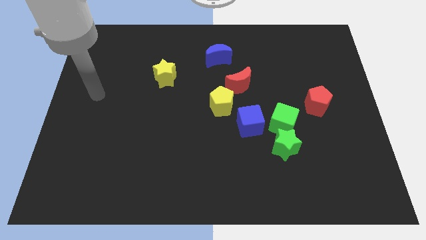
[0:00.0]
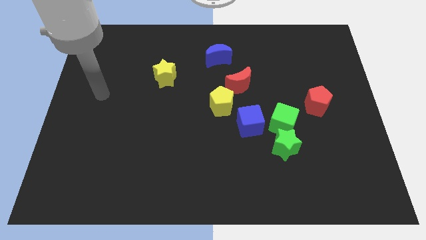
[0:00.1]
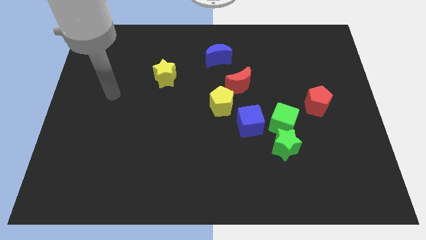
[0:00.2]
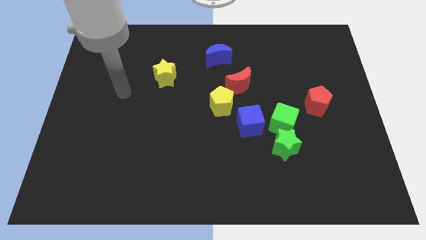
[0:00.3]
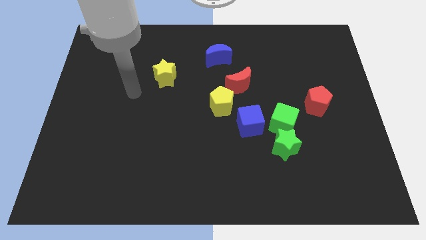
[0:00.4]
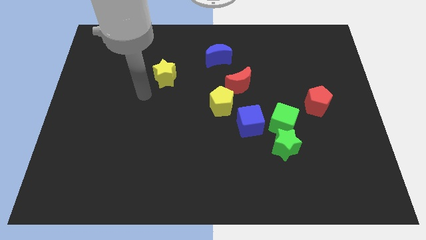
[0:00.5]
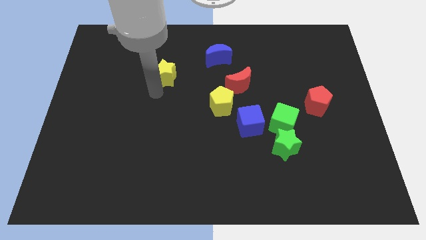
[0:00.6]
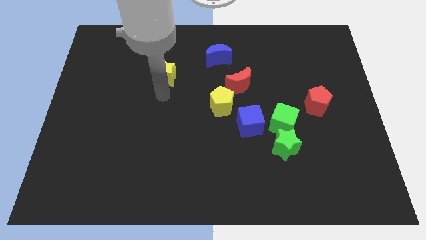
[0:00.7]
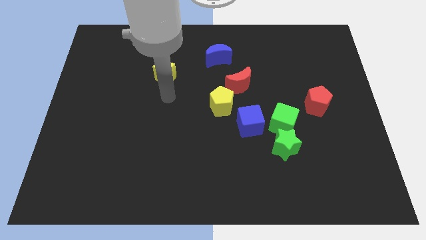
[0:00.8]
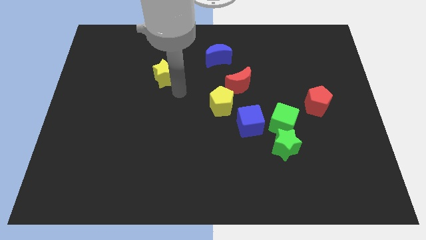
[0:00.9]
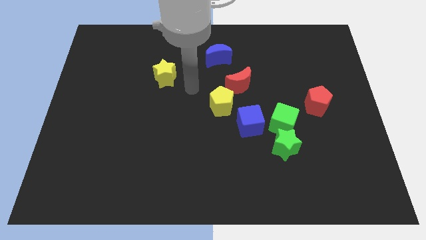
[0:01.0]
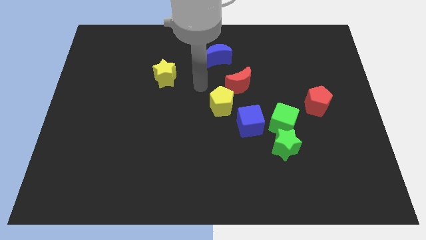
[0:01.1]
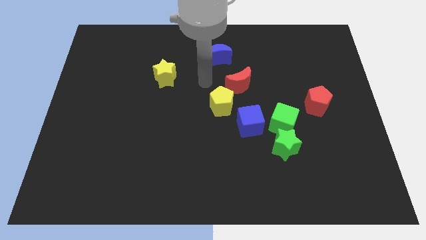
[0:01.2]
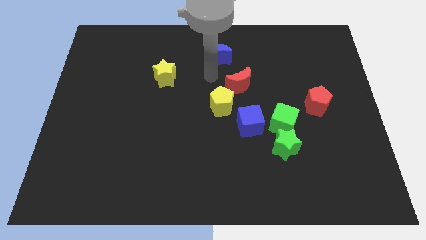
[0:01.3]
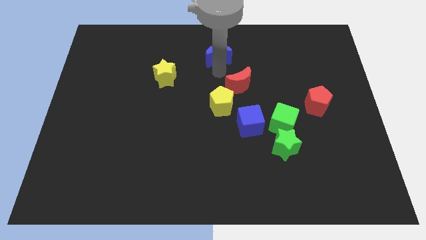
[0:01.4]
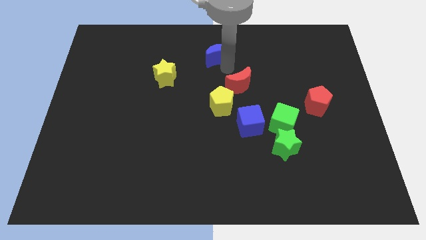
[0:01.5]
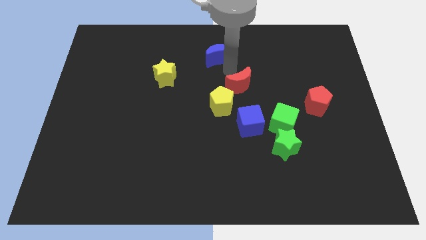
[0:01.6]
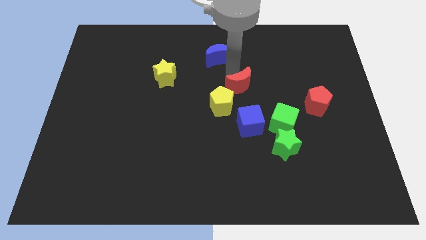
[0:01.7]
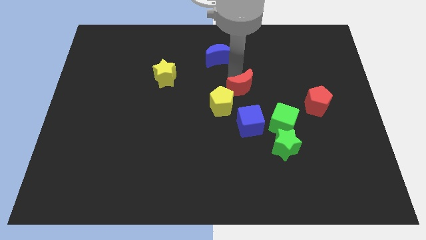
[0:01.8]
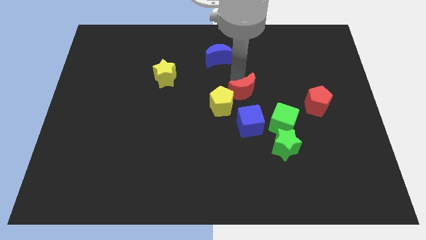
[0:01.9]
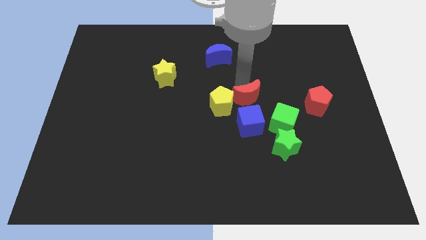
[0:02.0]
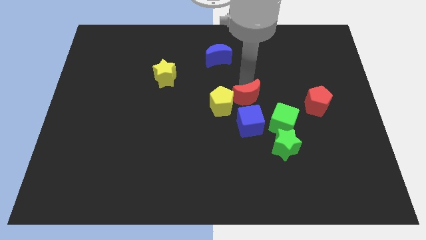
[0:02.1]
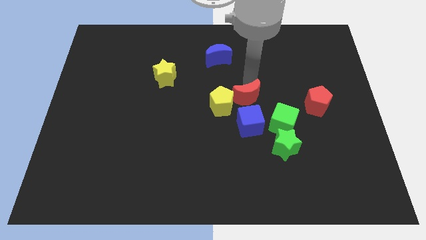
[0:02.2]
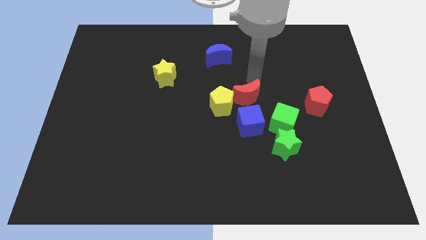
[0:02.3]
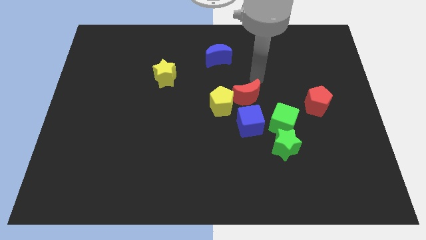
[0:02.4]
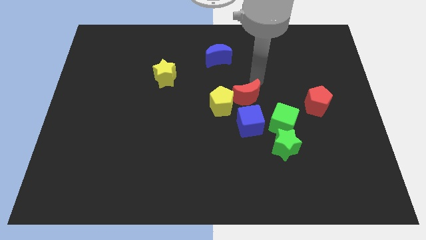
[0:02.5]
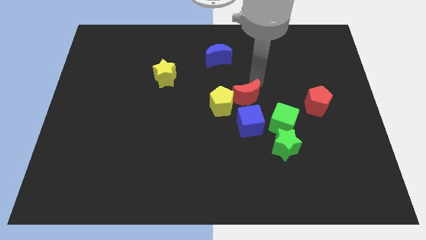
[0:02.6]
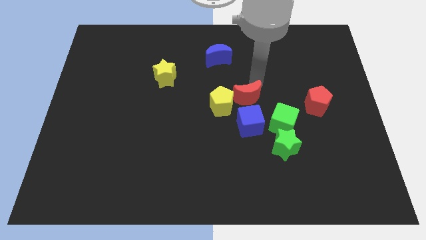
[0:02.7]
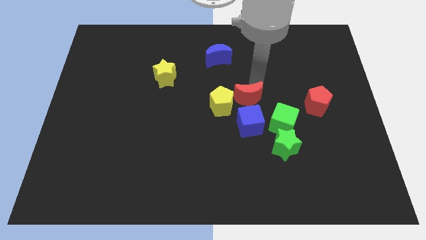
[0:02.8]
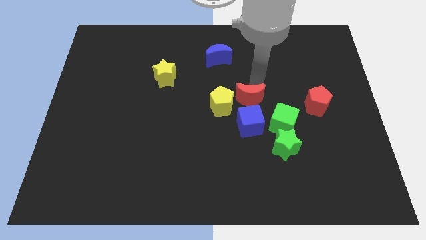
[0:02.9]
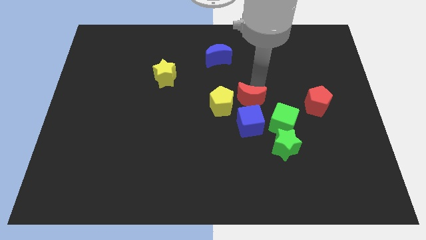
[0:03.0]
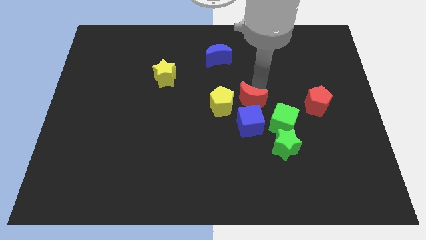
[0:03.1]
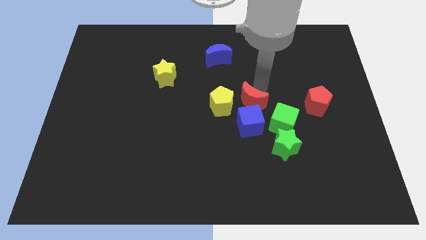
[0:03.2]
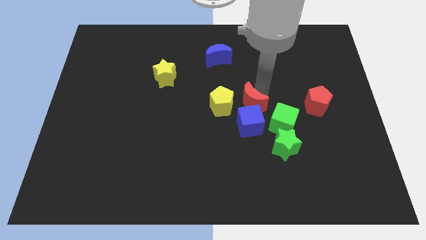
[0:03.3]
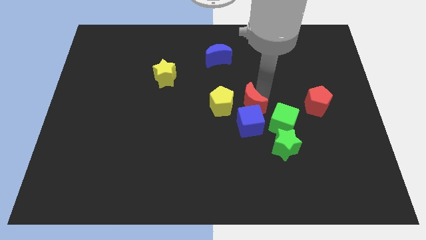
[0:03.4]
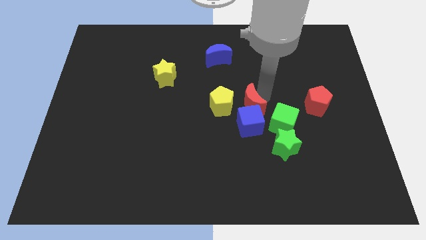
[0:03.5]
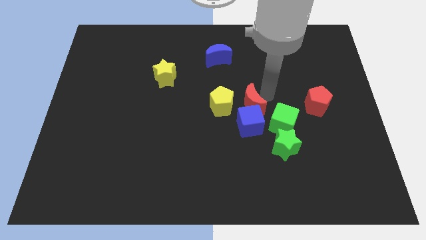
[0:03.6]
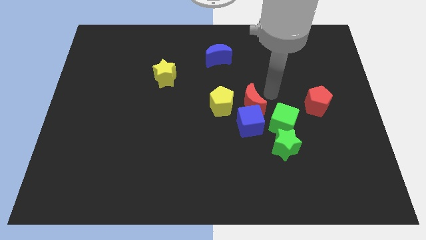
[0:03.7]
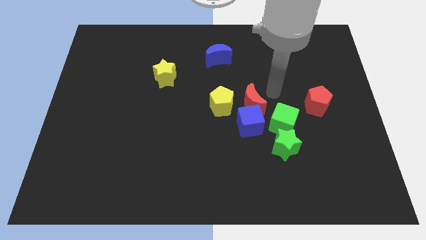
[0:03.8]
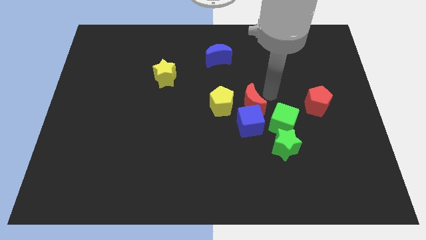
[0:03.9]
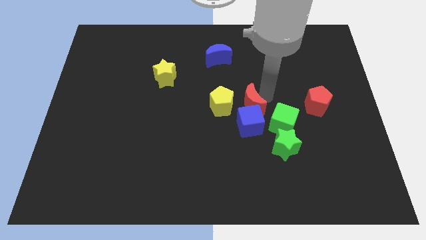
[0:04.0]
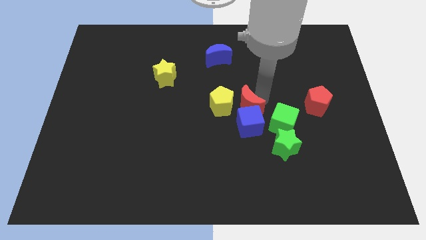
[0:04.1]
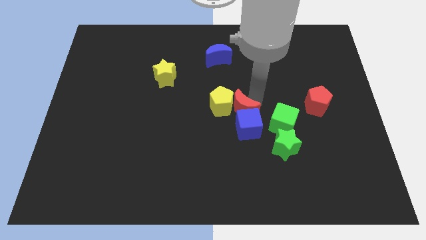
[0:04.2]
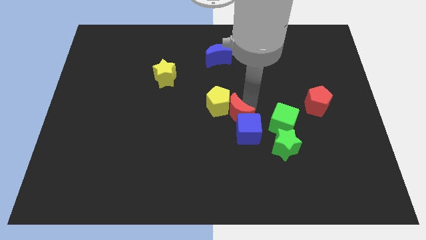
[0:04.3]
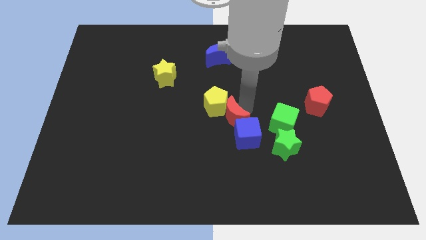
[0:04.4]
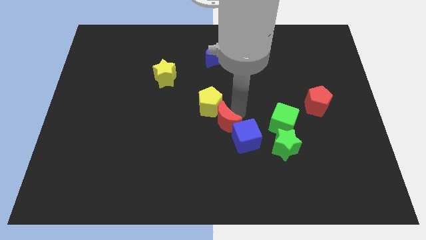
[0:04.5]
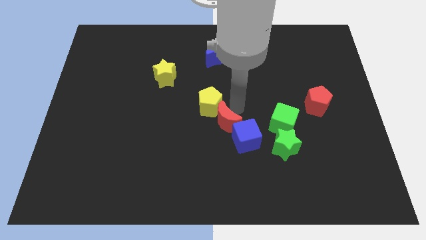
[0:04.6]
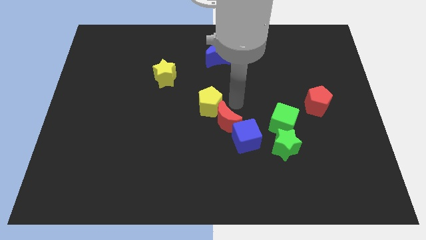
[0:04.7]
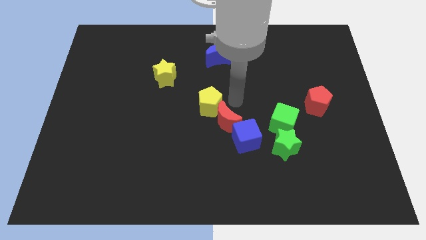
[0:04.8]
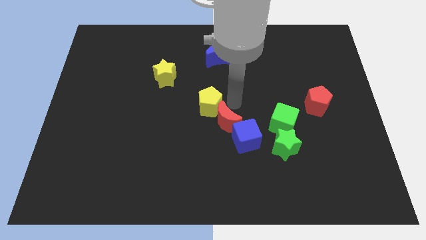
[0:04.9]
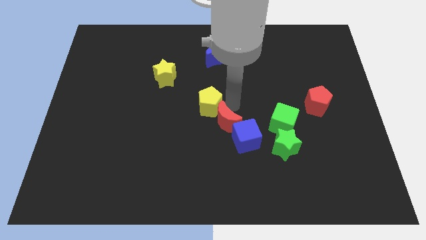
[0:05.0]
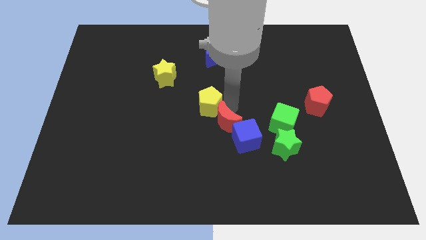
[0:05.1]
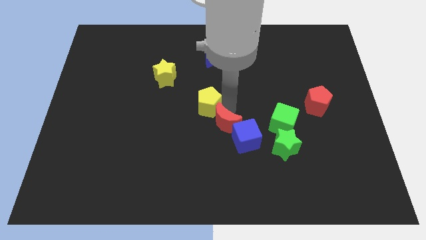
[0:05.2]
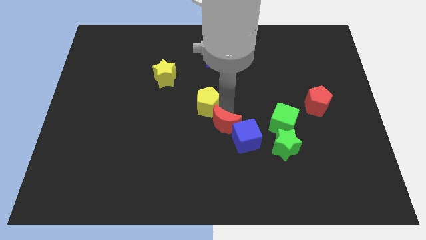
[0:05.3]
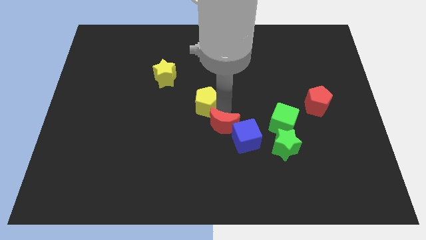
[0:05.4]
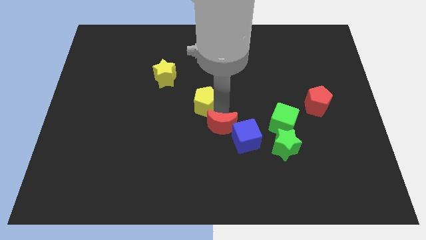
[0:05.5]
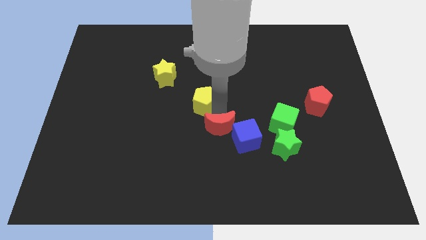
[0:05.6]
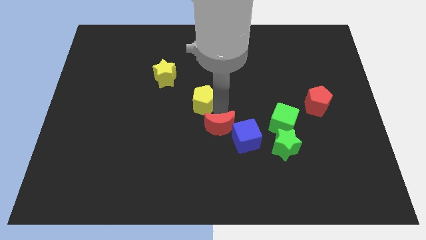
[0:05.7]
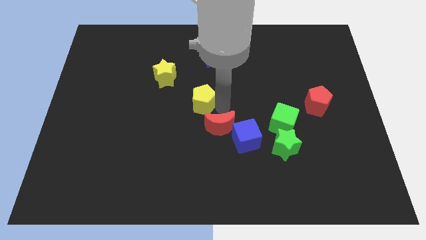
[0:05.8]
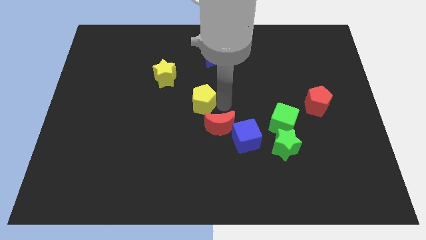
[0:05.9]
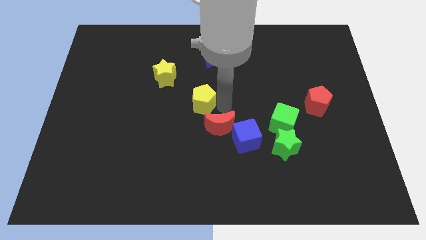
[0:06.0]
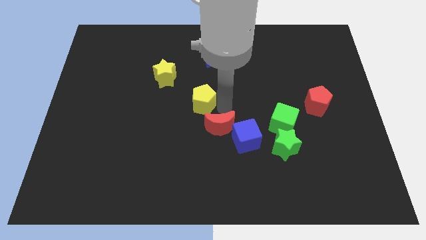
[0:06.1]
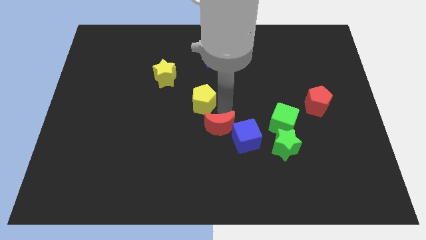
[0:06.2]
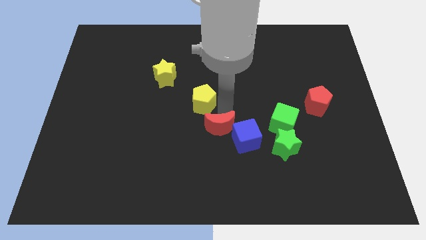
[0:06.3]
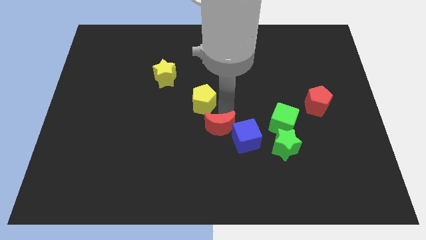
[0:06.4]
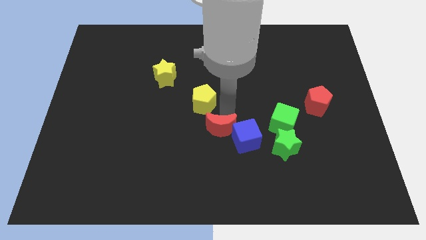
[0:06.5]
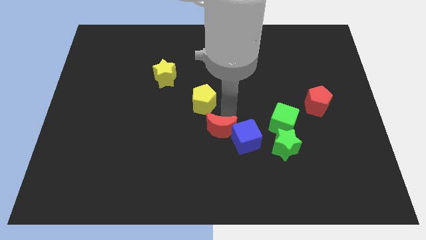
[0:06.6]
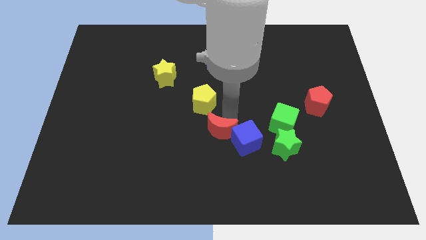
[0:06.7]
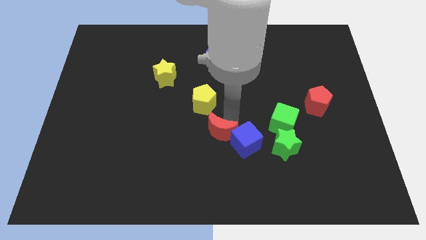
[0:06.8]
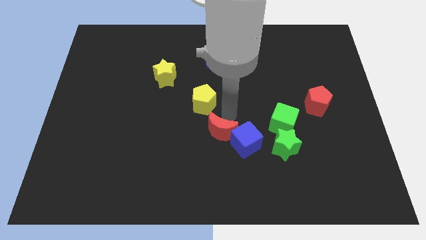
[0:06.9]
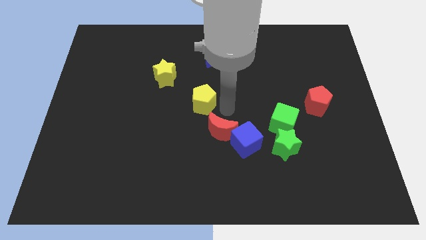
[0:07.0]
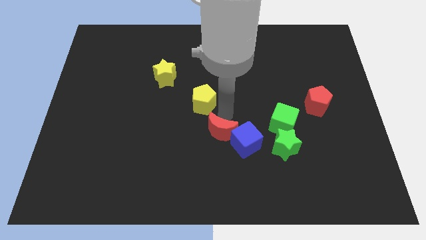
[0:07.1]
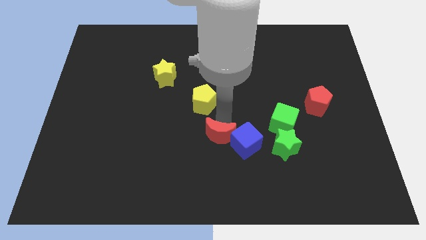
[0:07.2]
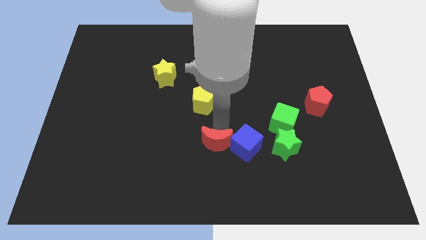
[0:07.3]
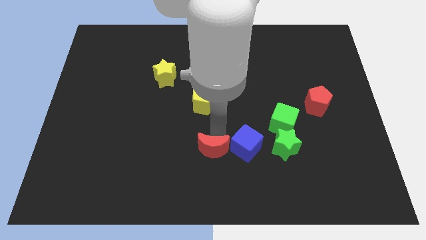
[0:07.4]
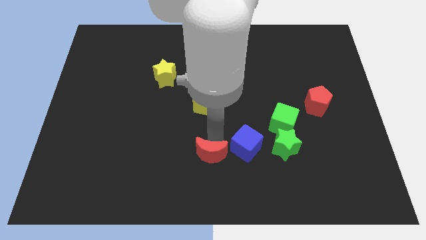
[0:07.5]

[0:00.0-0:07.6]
move the red moon to the bottom

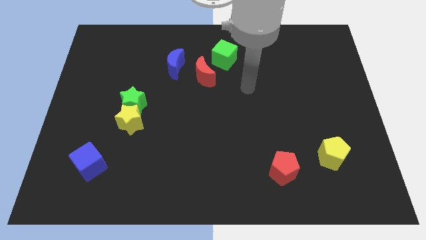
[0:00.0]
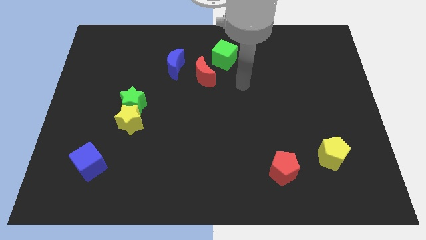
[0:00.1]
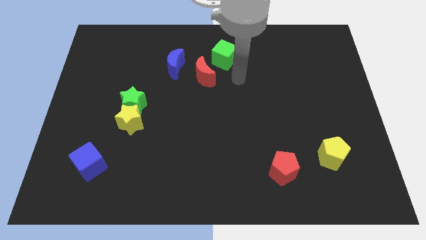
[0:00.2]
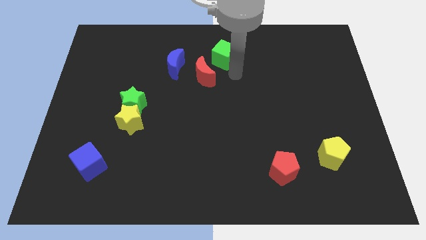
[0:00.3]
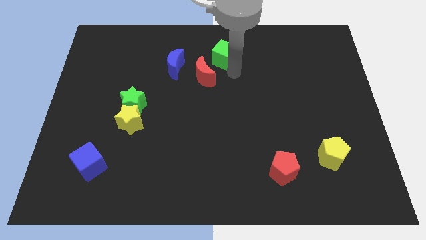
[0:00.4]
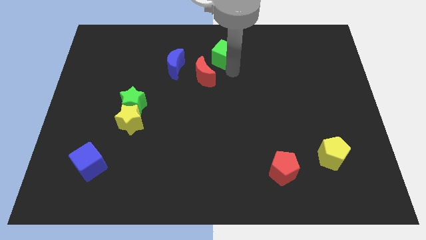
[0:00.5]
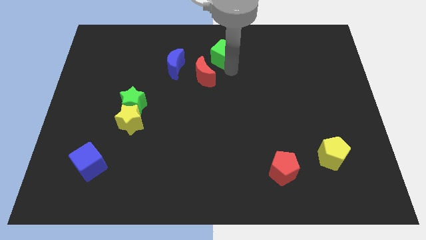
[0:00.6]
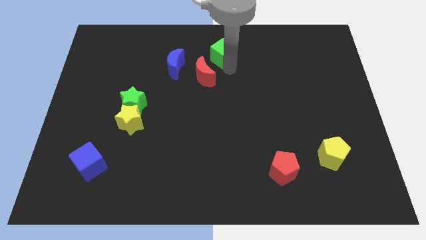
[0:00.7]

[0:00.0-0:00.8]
put the green cube to the top side
